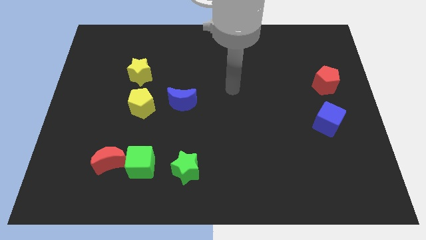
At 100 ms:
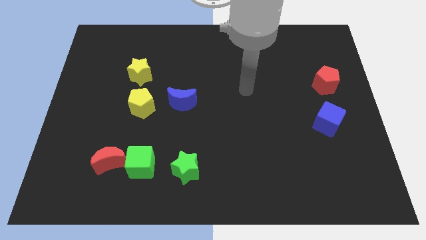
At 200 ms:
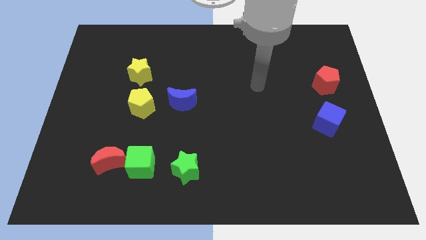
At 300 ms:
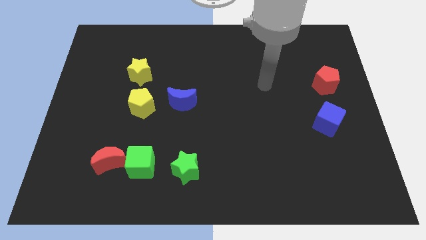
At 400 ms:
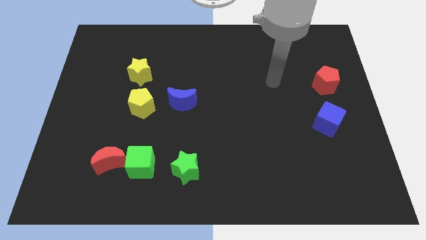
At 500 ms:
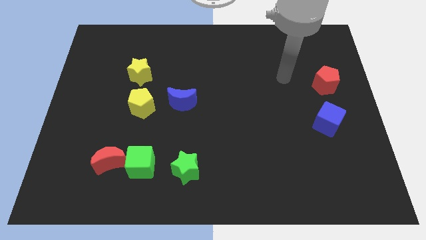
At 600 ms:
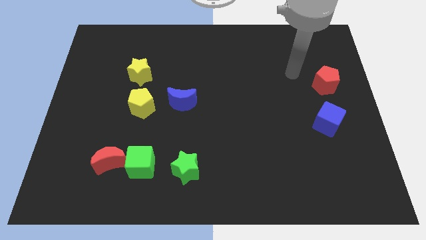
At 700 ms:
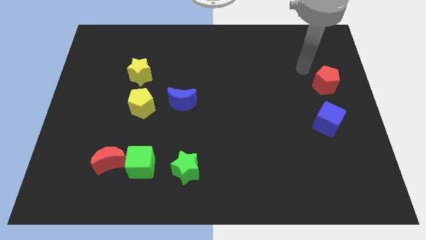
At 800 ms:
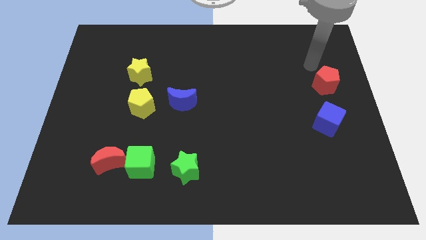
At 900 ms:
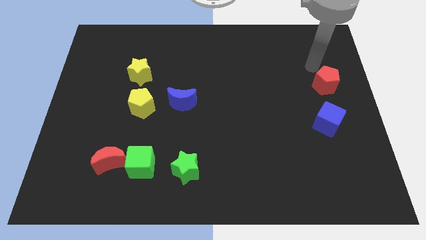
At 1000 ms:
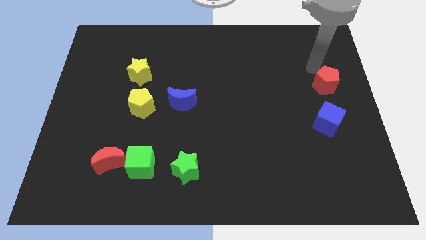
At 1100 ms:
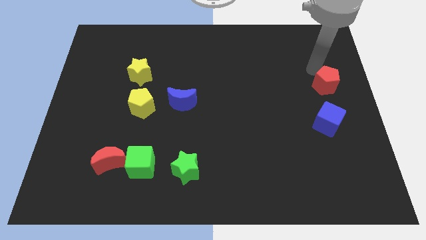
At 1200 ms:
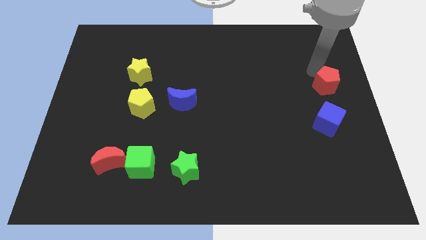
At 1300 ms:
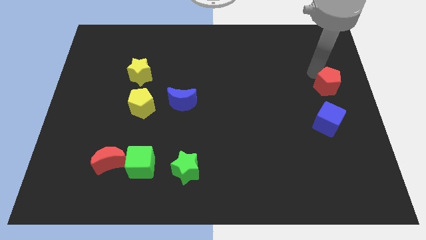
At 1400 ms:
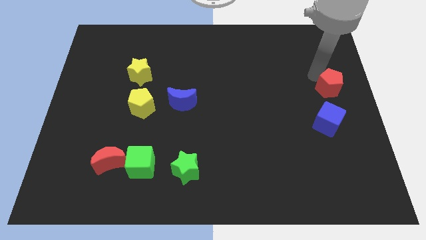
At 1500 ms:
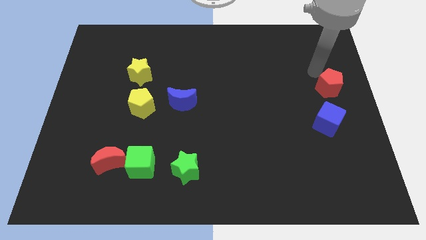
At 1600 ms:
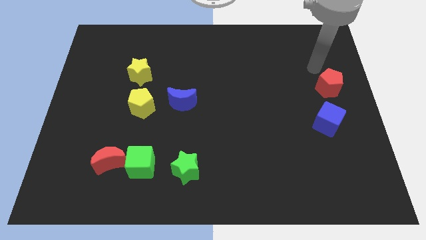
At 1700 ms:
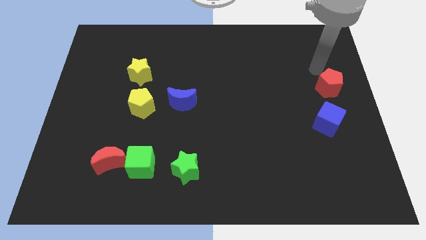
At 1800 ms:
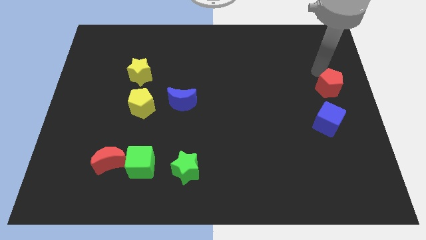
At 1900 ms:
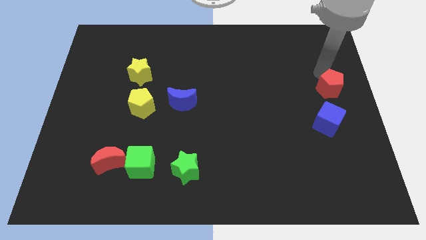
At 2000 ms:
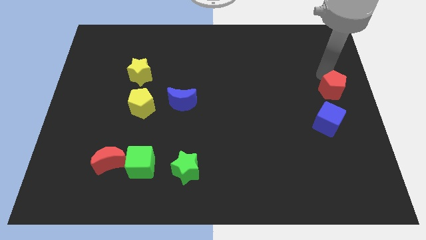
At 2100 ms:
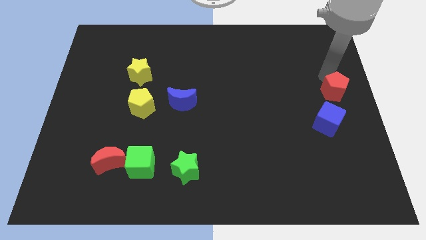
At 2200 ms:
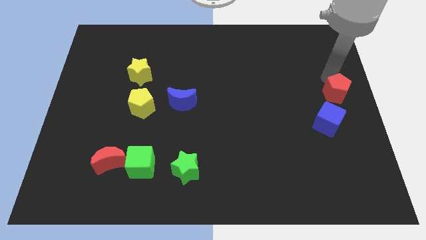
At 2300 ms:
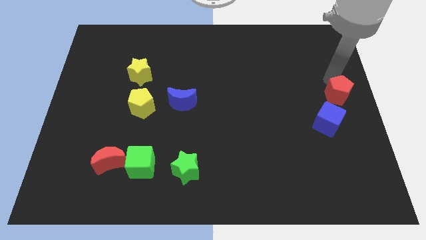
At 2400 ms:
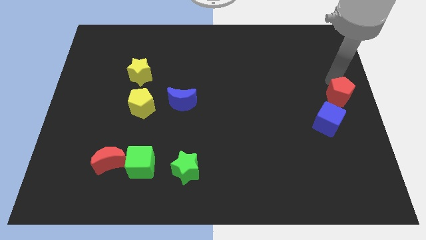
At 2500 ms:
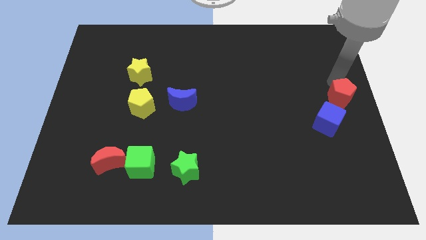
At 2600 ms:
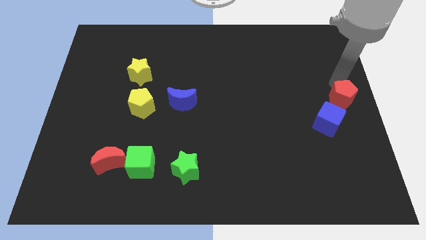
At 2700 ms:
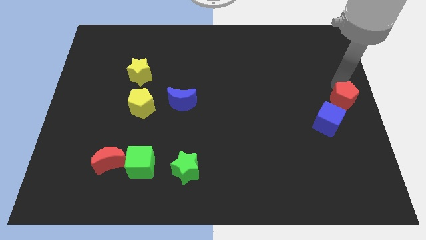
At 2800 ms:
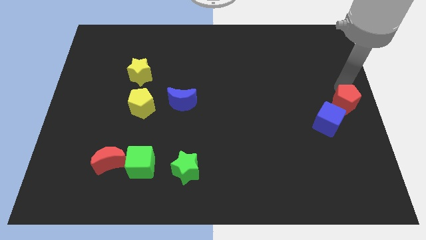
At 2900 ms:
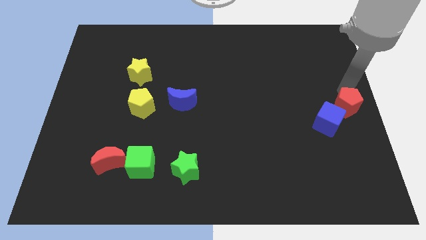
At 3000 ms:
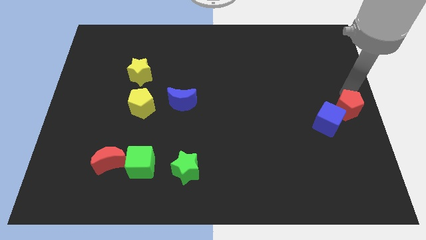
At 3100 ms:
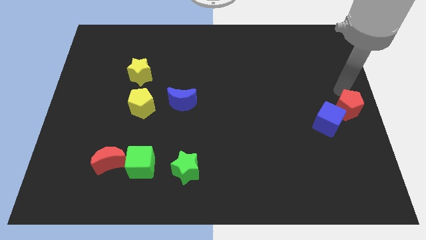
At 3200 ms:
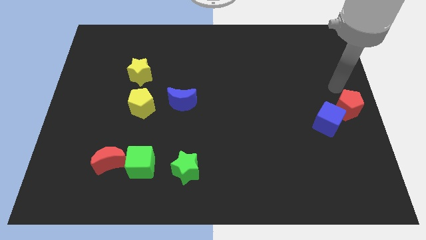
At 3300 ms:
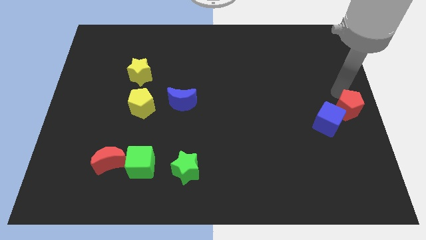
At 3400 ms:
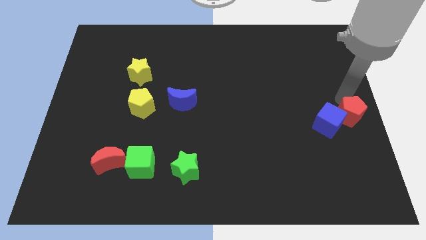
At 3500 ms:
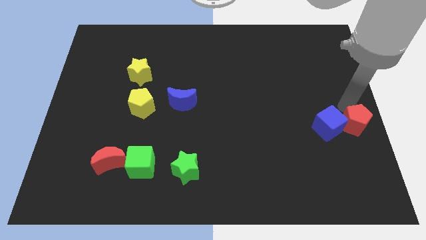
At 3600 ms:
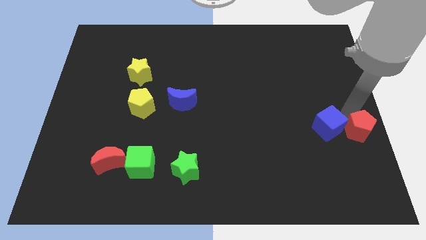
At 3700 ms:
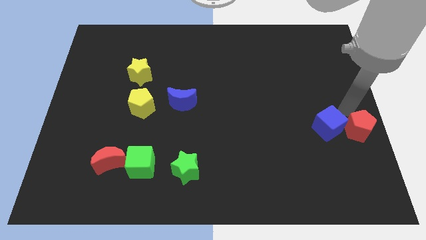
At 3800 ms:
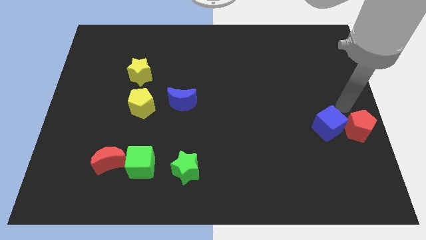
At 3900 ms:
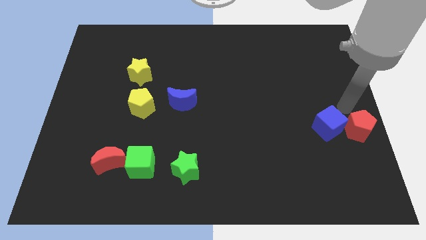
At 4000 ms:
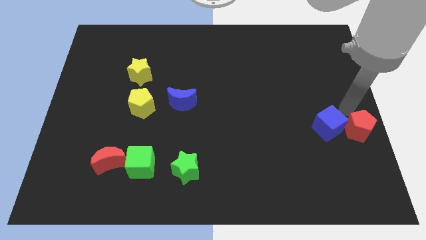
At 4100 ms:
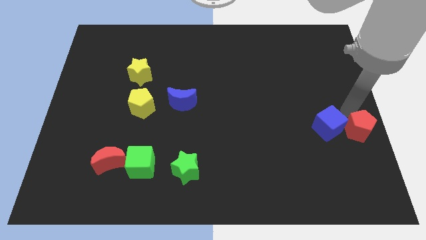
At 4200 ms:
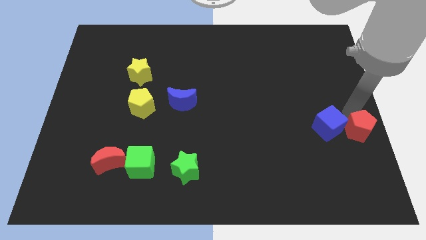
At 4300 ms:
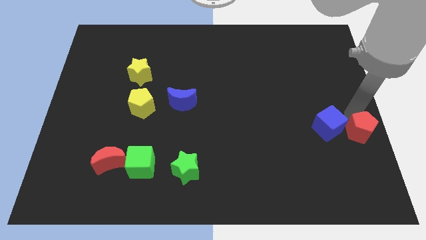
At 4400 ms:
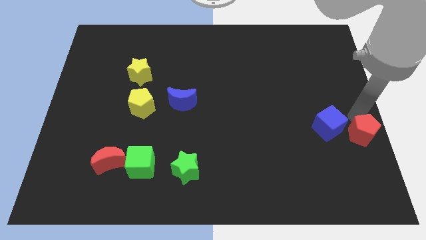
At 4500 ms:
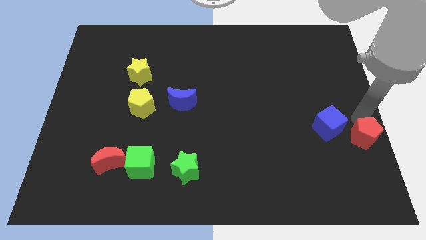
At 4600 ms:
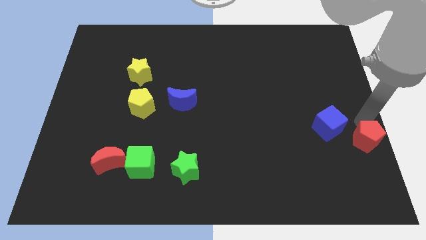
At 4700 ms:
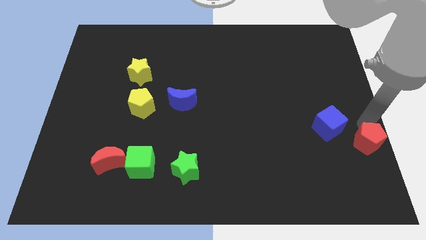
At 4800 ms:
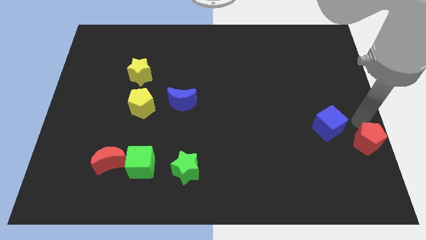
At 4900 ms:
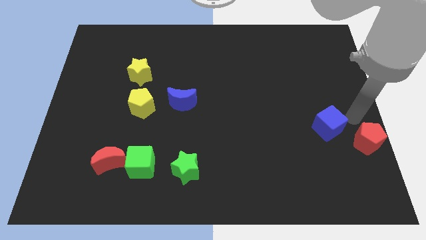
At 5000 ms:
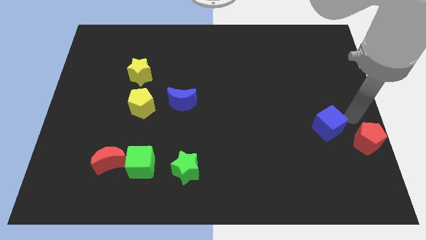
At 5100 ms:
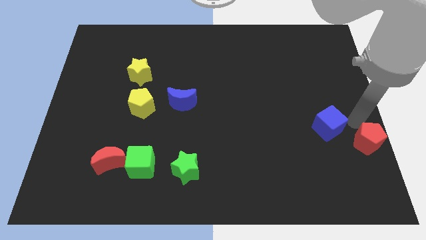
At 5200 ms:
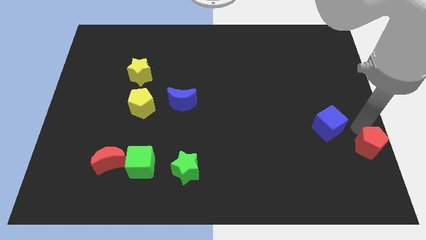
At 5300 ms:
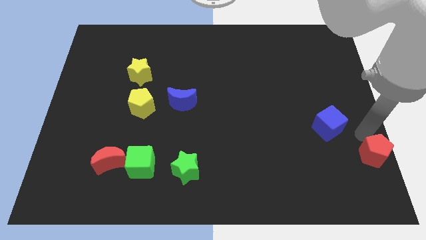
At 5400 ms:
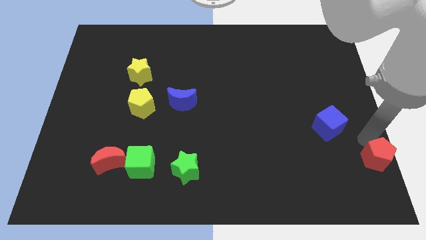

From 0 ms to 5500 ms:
slide the red pentagon to the bottom right corner

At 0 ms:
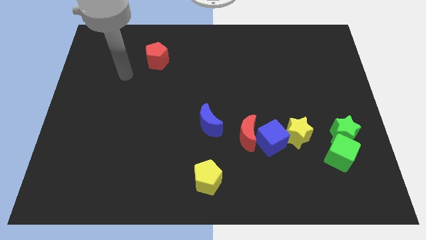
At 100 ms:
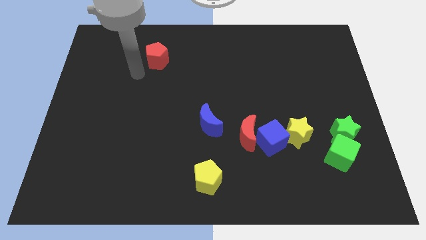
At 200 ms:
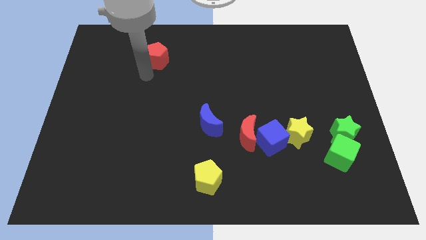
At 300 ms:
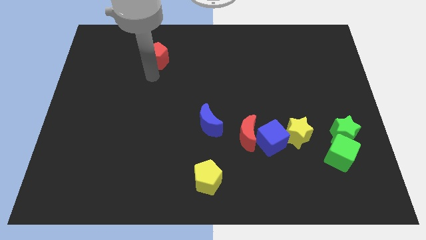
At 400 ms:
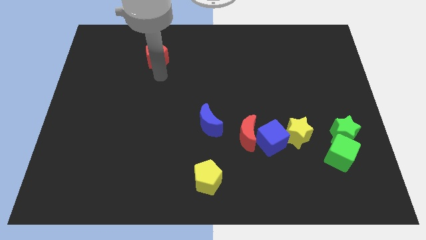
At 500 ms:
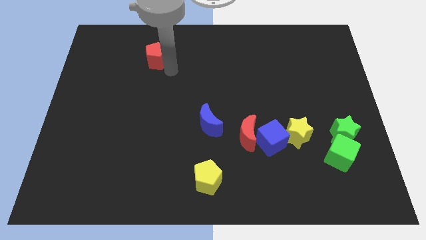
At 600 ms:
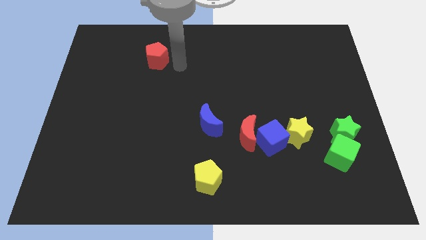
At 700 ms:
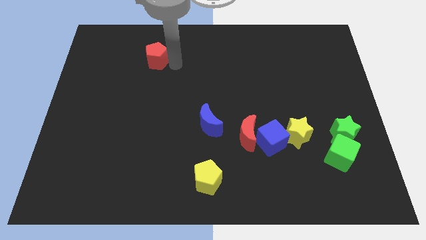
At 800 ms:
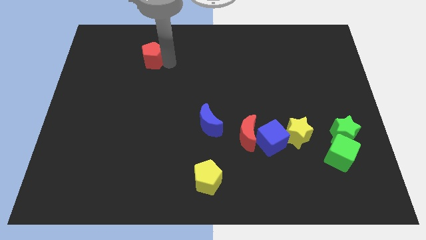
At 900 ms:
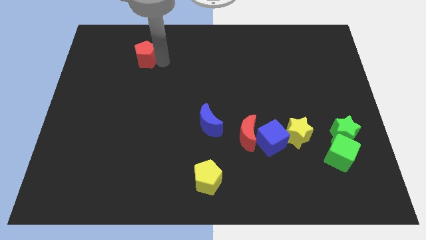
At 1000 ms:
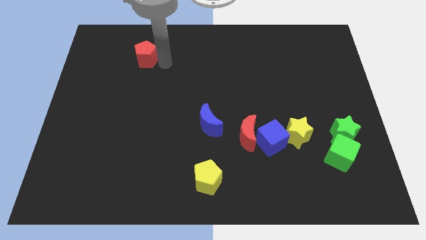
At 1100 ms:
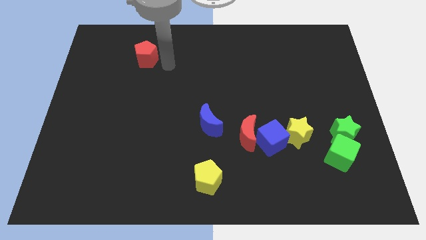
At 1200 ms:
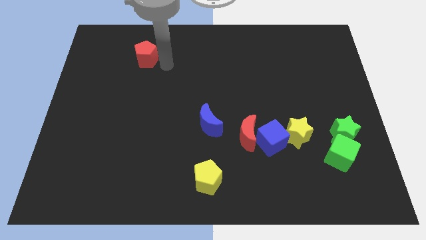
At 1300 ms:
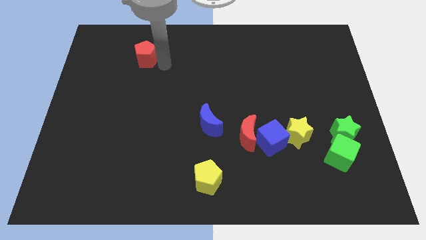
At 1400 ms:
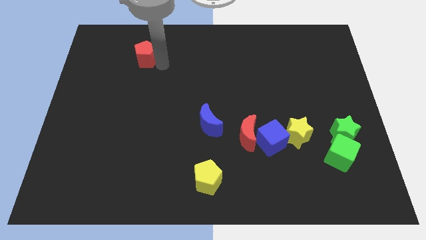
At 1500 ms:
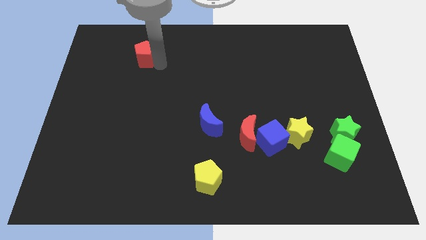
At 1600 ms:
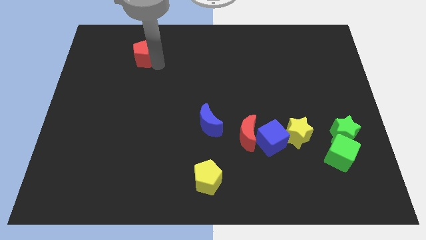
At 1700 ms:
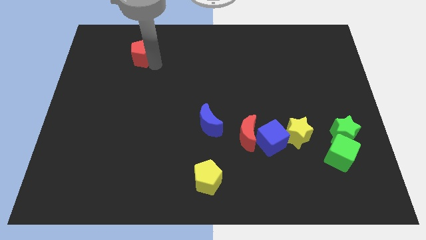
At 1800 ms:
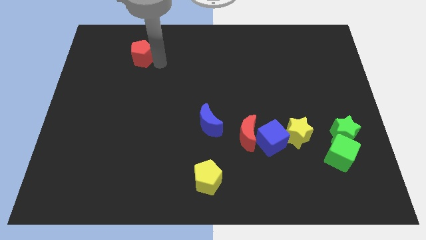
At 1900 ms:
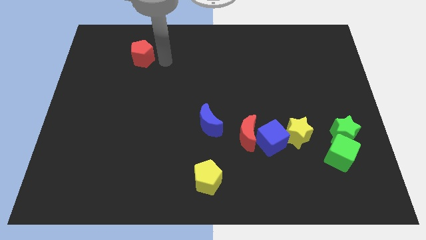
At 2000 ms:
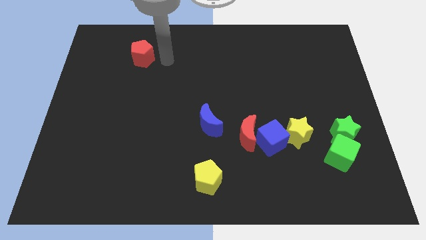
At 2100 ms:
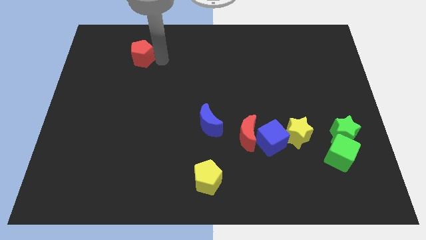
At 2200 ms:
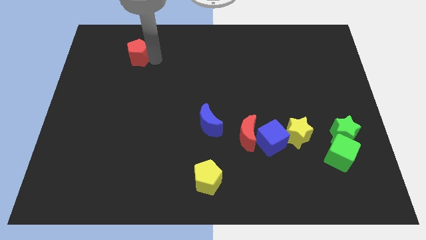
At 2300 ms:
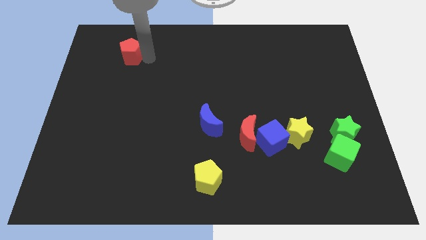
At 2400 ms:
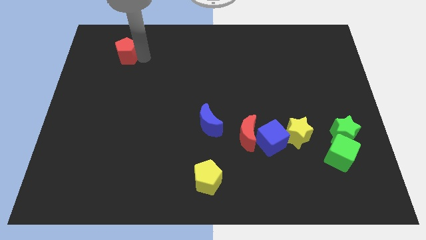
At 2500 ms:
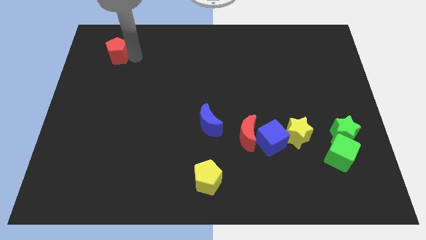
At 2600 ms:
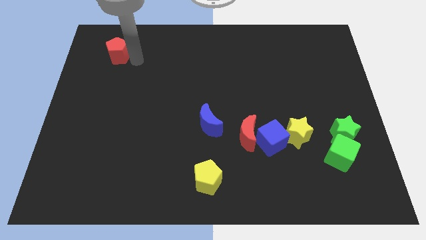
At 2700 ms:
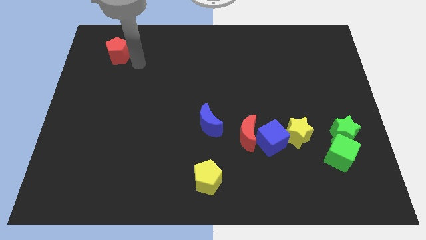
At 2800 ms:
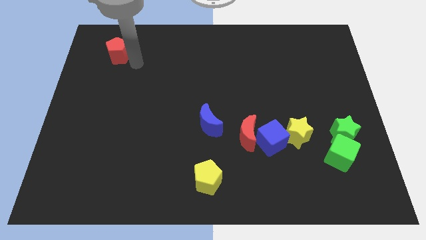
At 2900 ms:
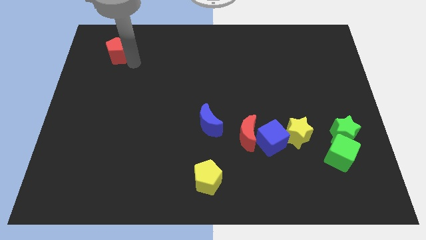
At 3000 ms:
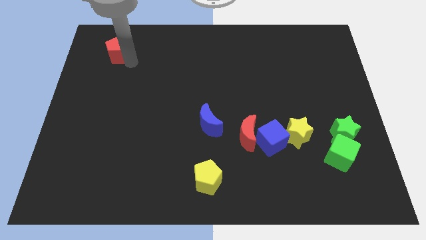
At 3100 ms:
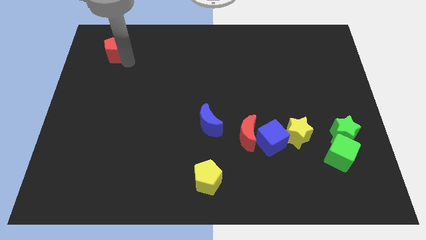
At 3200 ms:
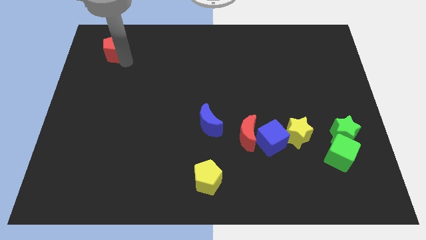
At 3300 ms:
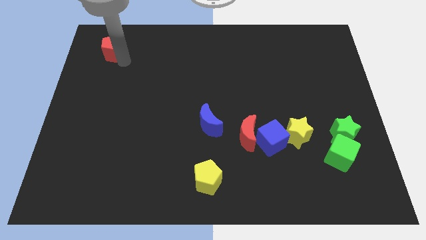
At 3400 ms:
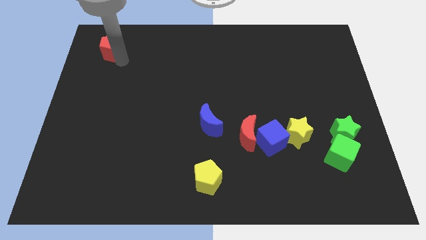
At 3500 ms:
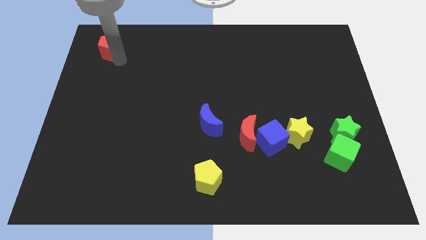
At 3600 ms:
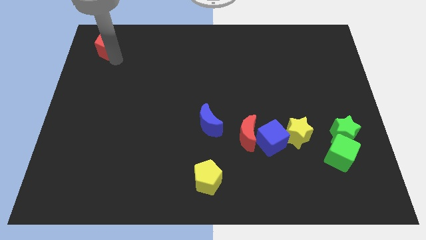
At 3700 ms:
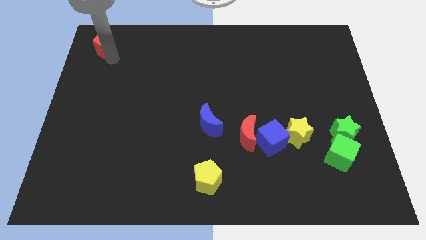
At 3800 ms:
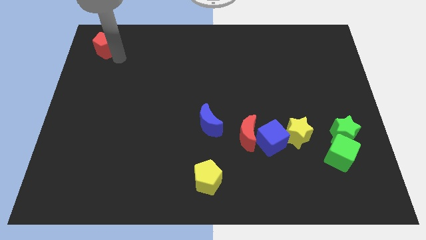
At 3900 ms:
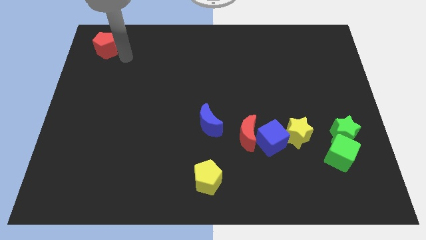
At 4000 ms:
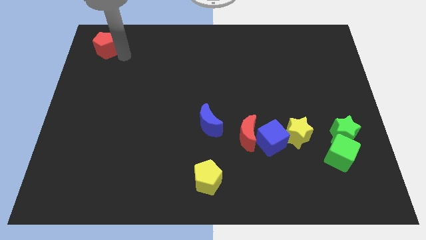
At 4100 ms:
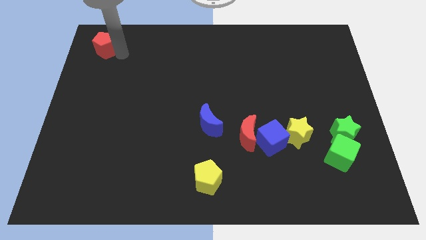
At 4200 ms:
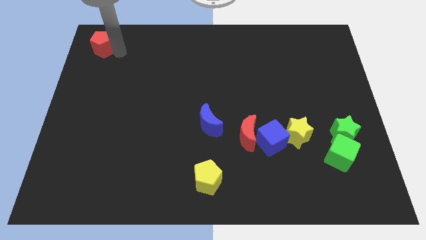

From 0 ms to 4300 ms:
put the red pentagon to the top left
